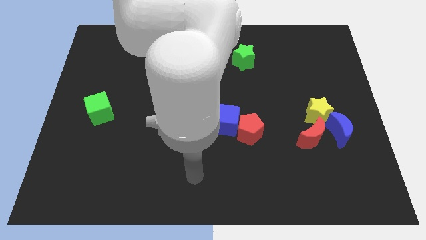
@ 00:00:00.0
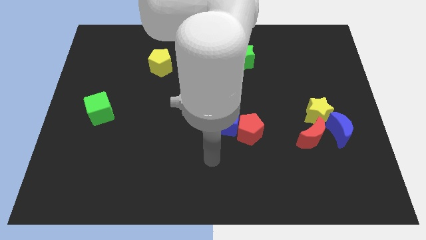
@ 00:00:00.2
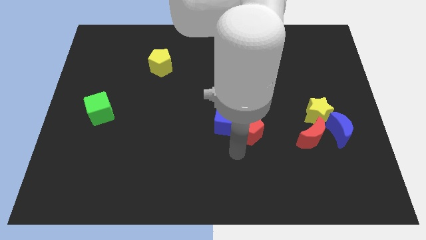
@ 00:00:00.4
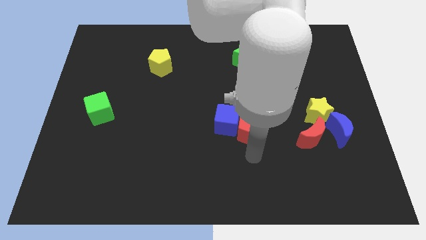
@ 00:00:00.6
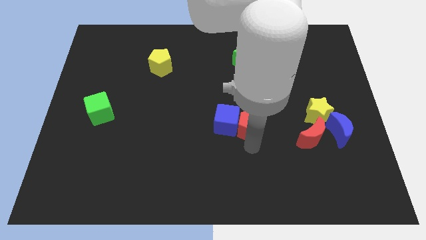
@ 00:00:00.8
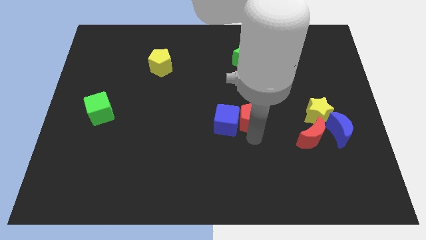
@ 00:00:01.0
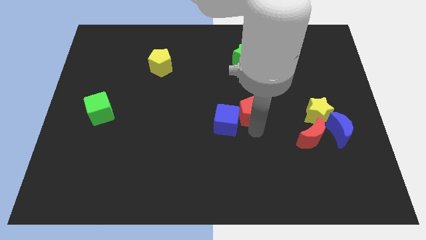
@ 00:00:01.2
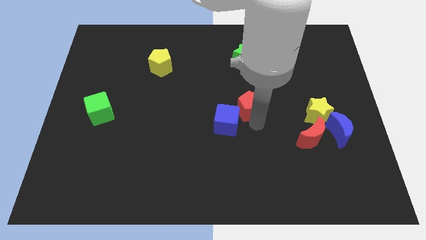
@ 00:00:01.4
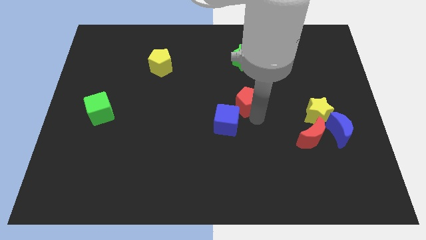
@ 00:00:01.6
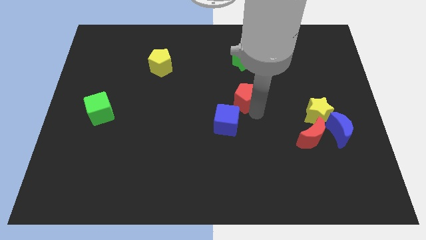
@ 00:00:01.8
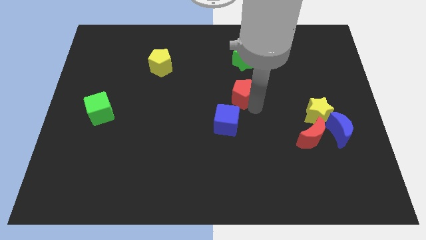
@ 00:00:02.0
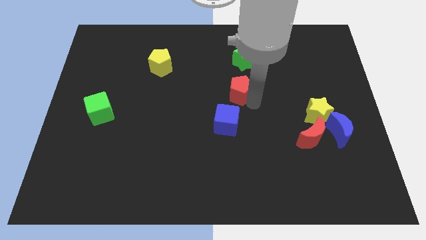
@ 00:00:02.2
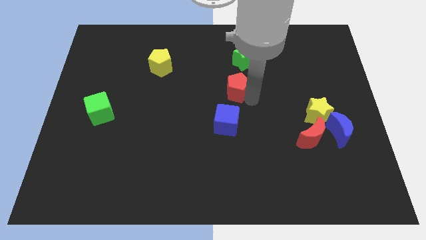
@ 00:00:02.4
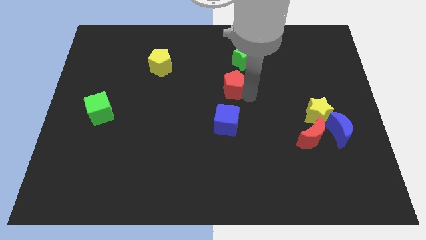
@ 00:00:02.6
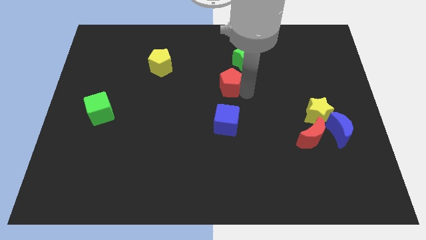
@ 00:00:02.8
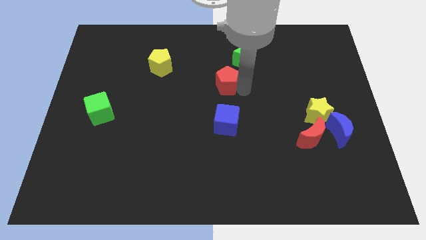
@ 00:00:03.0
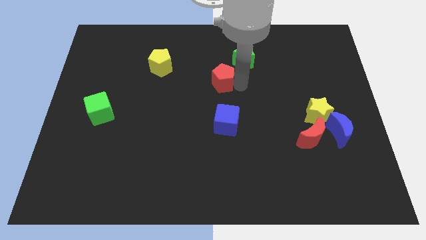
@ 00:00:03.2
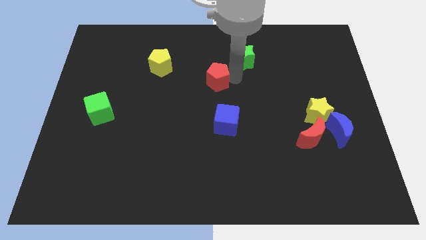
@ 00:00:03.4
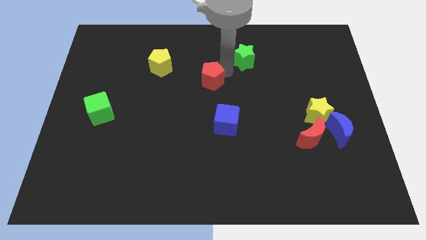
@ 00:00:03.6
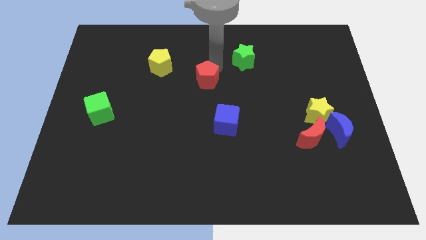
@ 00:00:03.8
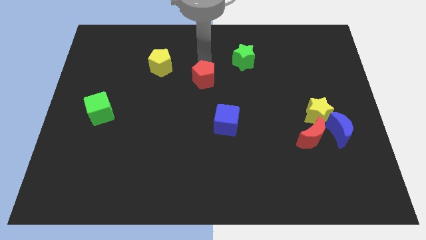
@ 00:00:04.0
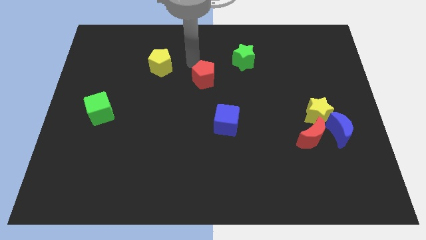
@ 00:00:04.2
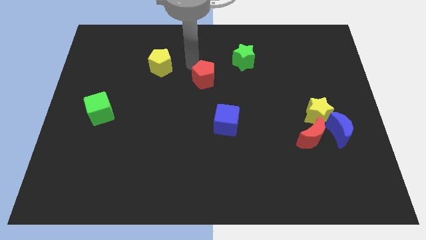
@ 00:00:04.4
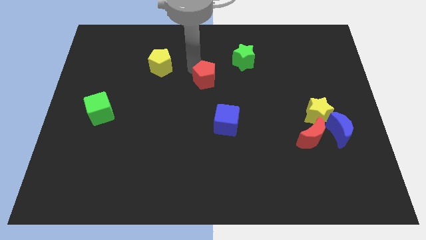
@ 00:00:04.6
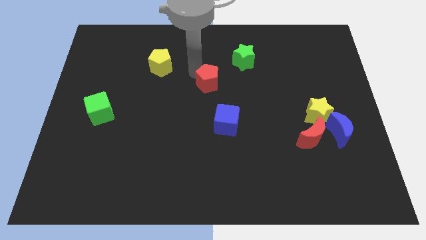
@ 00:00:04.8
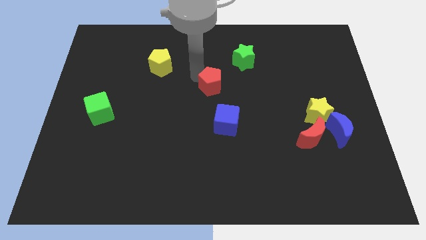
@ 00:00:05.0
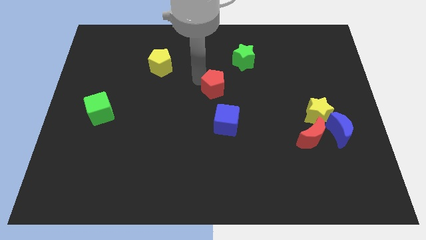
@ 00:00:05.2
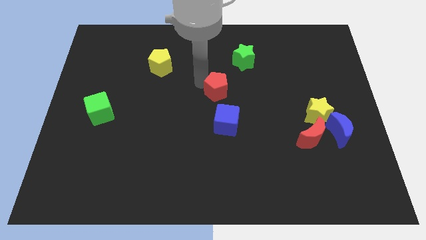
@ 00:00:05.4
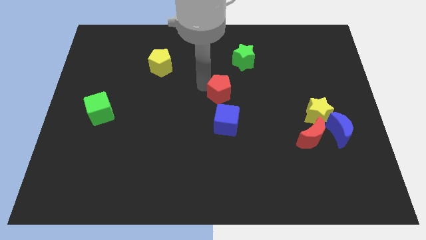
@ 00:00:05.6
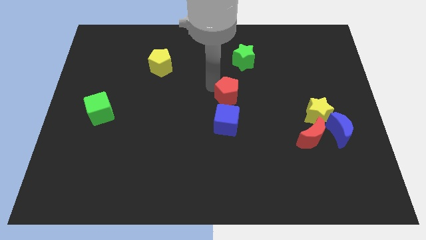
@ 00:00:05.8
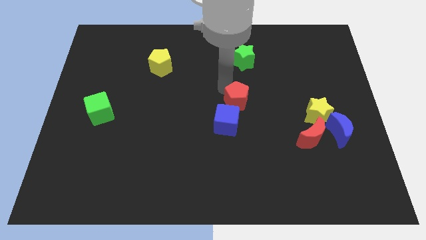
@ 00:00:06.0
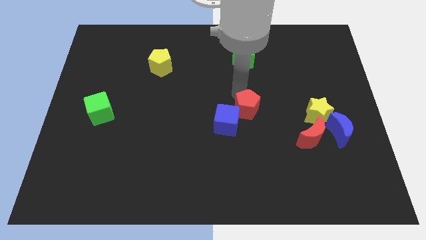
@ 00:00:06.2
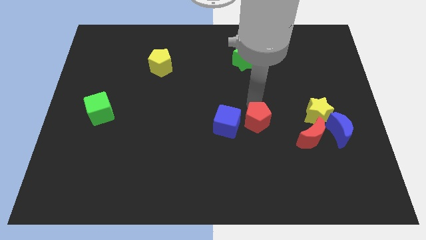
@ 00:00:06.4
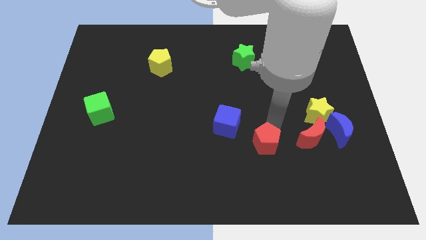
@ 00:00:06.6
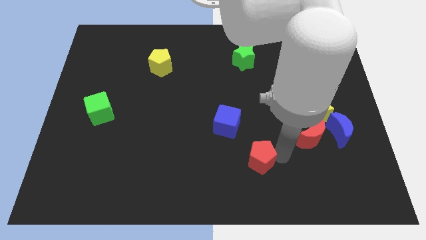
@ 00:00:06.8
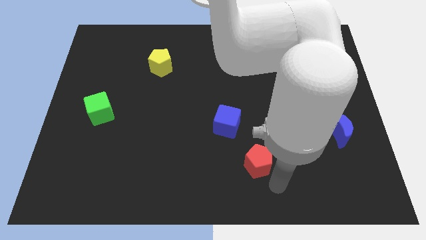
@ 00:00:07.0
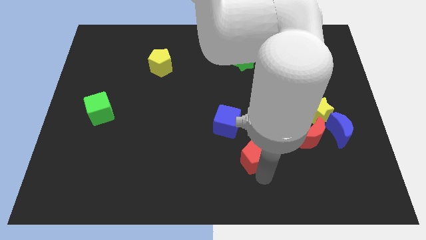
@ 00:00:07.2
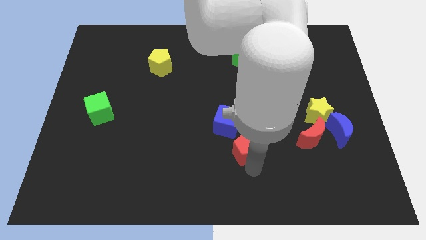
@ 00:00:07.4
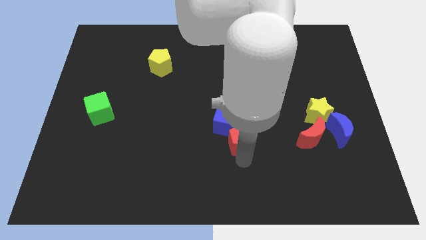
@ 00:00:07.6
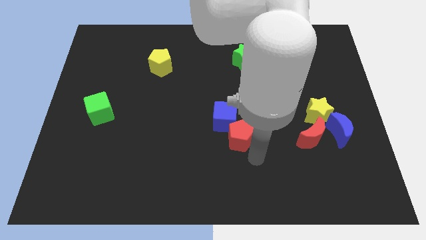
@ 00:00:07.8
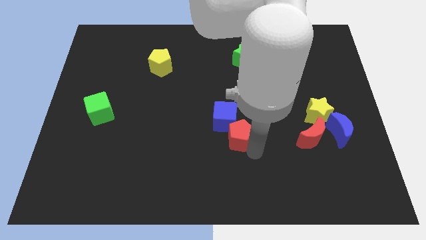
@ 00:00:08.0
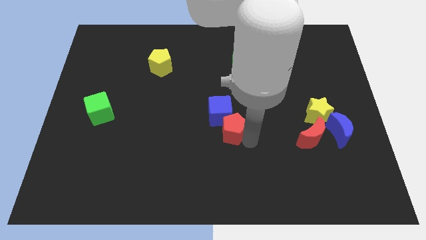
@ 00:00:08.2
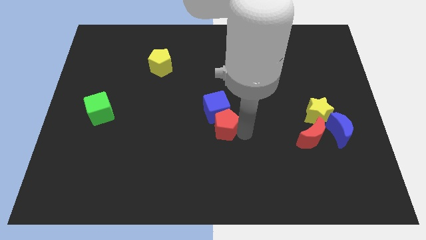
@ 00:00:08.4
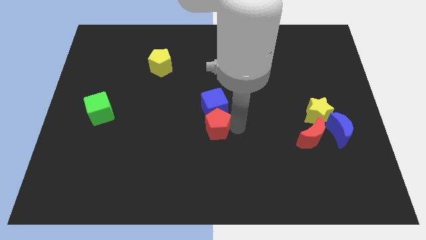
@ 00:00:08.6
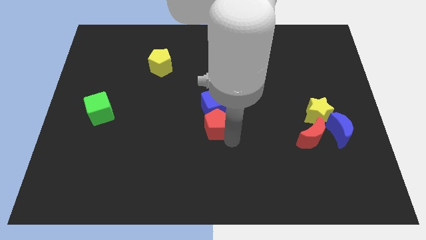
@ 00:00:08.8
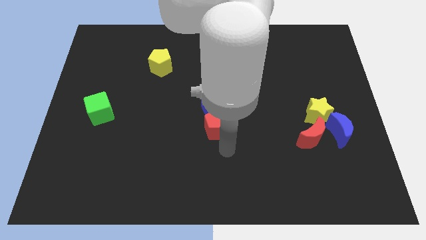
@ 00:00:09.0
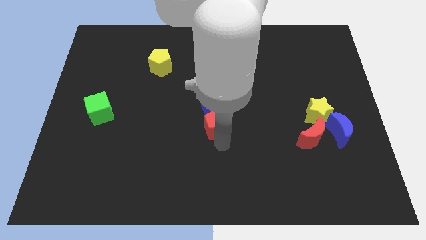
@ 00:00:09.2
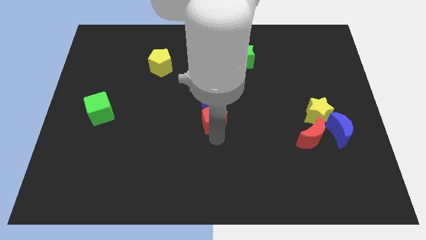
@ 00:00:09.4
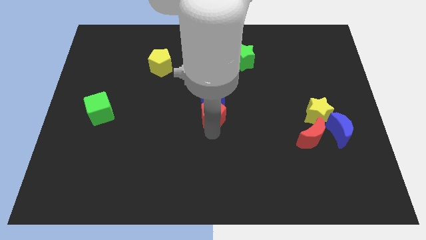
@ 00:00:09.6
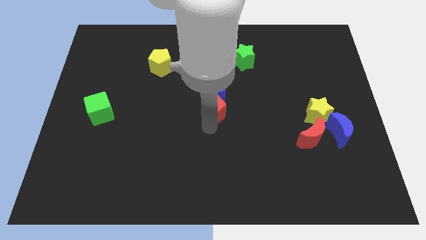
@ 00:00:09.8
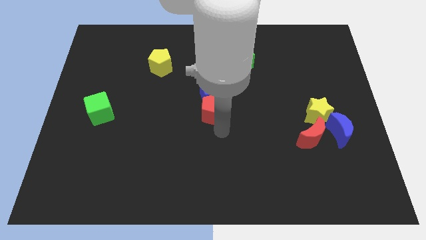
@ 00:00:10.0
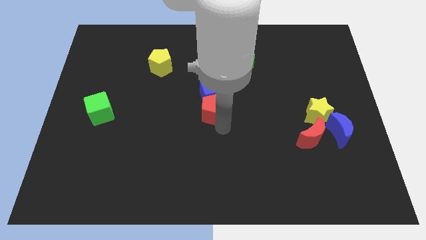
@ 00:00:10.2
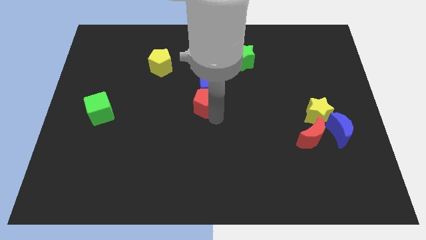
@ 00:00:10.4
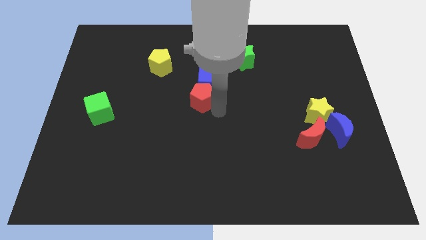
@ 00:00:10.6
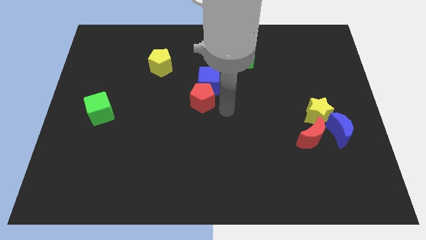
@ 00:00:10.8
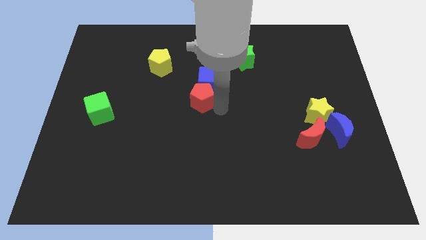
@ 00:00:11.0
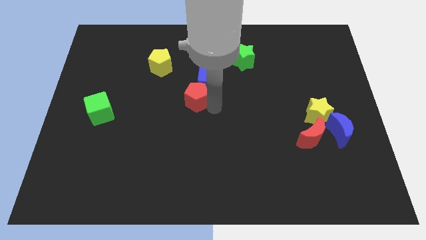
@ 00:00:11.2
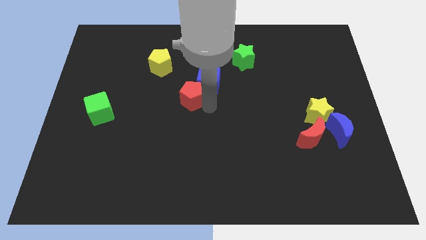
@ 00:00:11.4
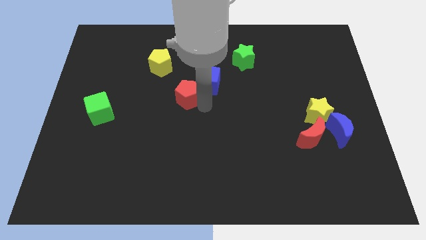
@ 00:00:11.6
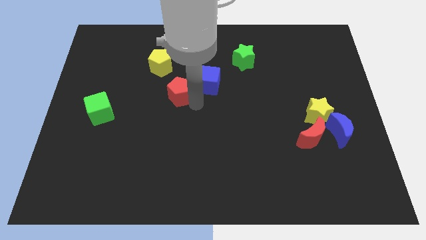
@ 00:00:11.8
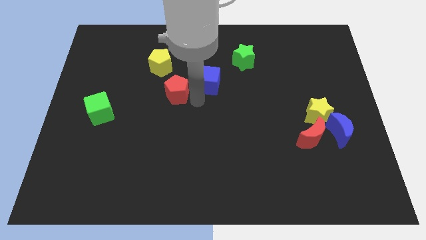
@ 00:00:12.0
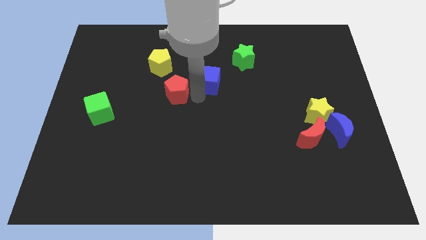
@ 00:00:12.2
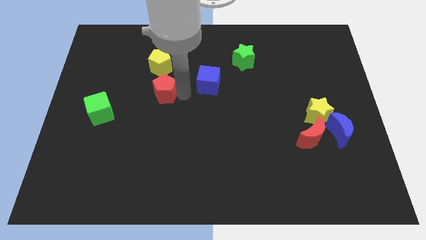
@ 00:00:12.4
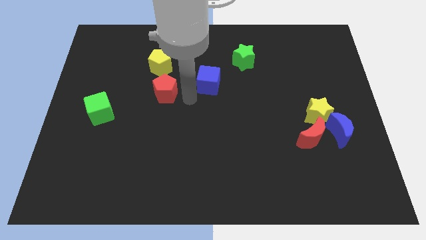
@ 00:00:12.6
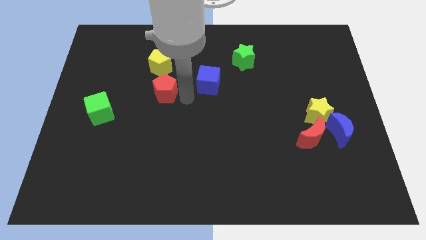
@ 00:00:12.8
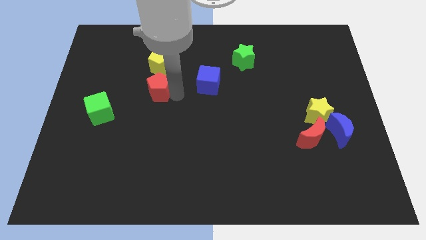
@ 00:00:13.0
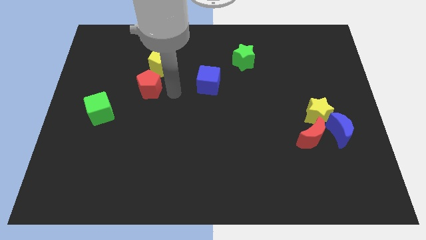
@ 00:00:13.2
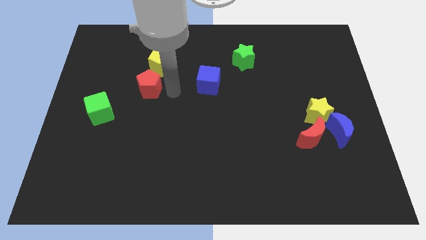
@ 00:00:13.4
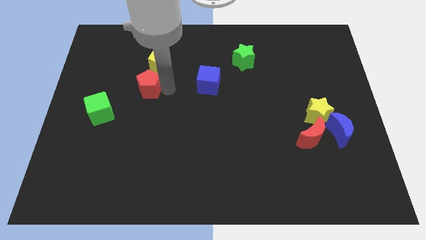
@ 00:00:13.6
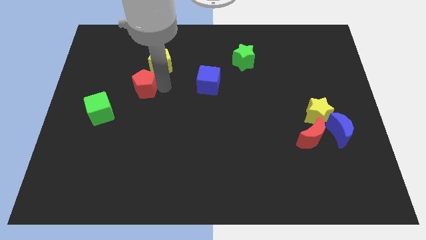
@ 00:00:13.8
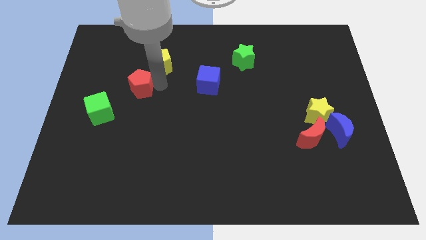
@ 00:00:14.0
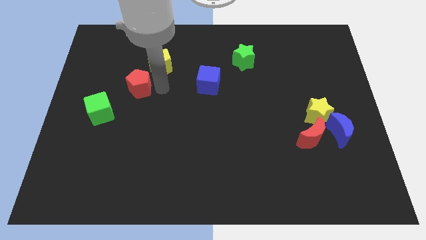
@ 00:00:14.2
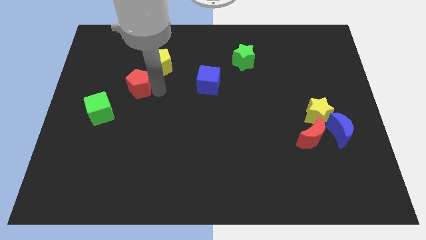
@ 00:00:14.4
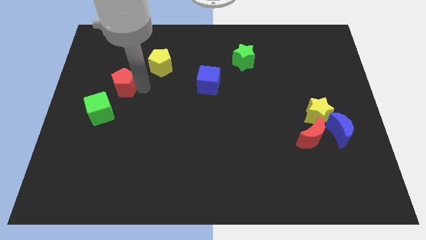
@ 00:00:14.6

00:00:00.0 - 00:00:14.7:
put the red pentagon above the green cube
